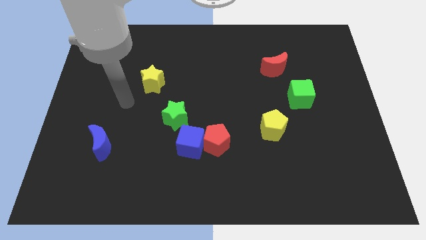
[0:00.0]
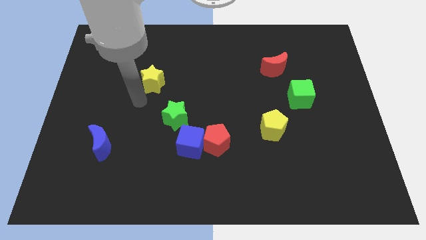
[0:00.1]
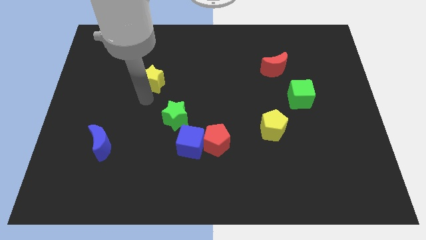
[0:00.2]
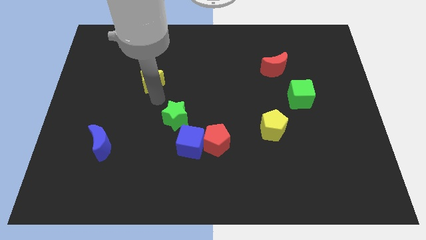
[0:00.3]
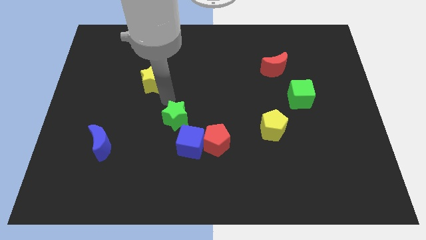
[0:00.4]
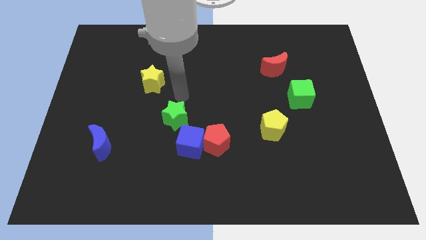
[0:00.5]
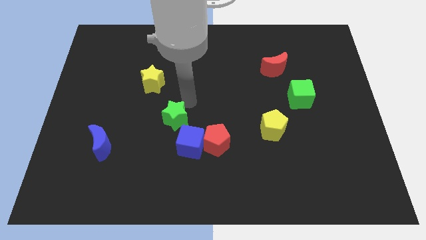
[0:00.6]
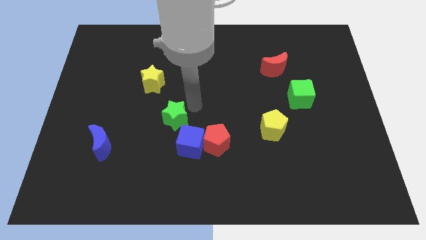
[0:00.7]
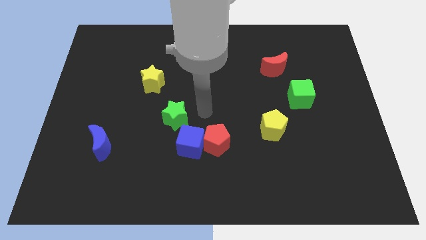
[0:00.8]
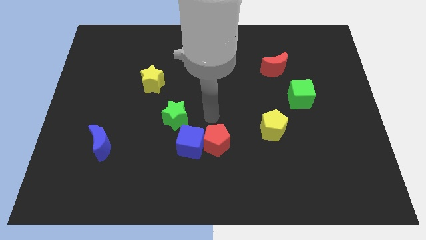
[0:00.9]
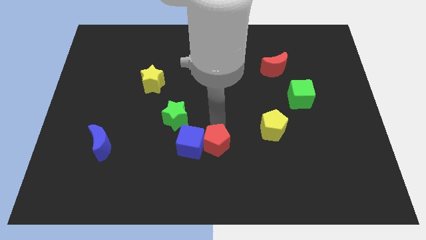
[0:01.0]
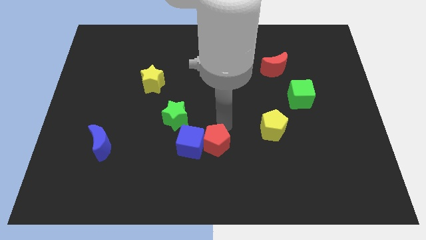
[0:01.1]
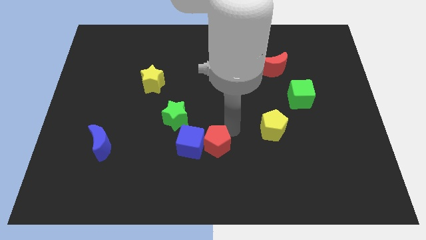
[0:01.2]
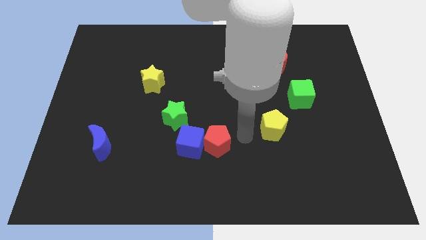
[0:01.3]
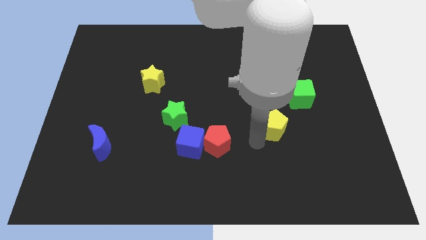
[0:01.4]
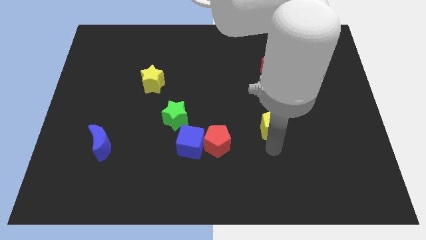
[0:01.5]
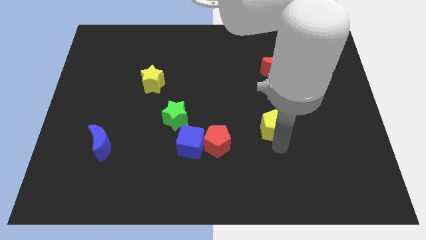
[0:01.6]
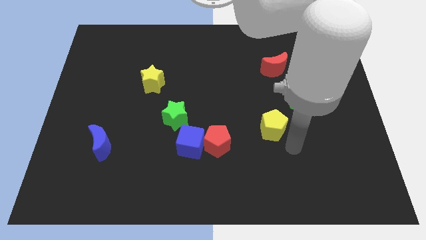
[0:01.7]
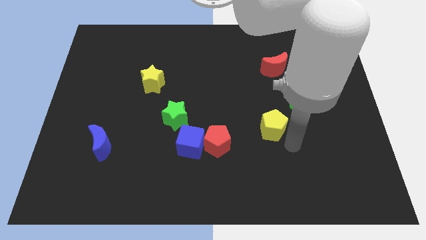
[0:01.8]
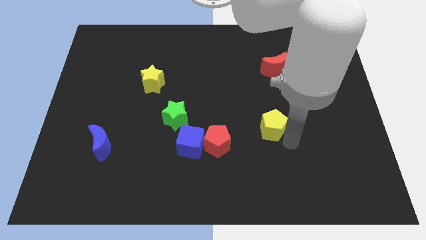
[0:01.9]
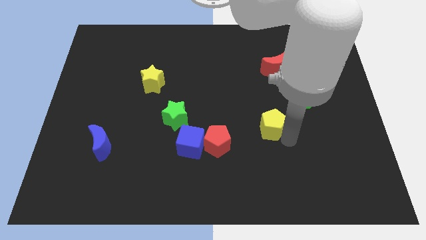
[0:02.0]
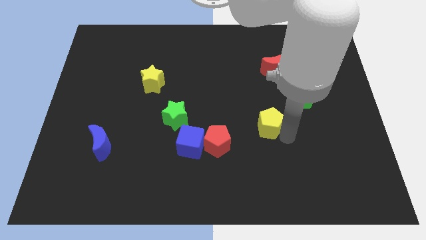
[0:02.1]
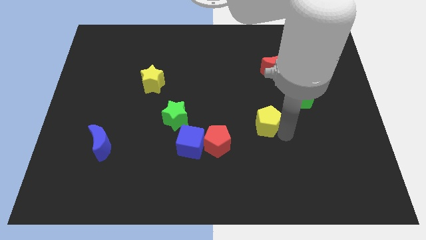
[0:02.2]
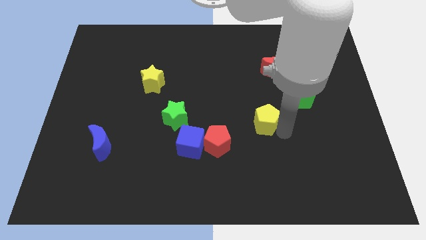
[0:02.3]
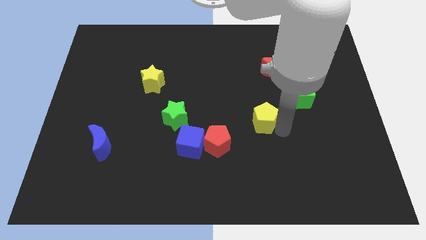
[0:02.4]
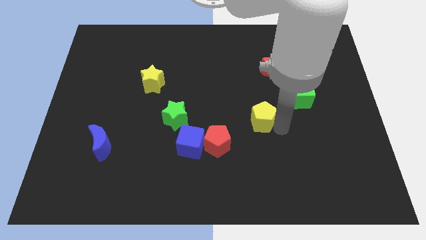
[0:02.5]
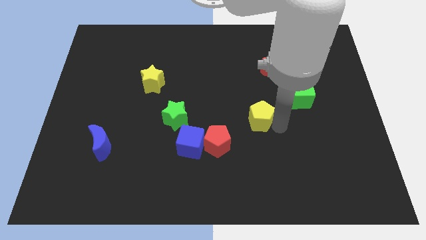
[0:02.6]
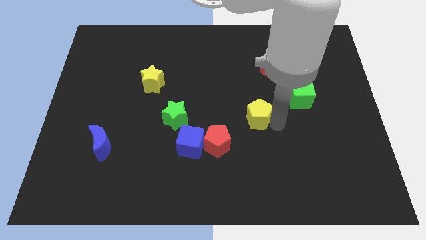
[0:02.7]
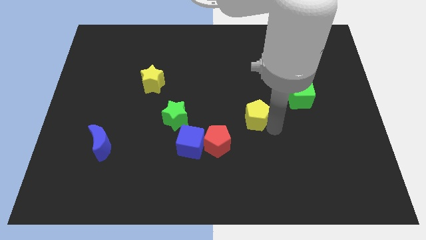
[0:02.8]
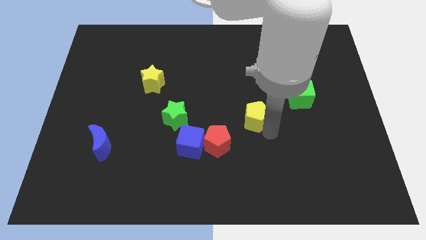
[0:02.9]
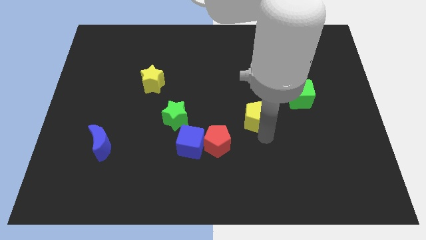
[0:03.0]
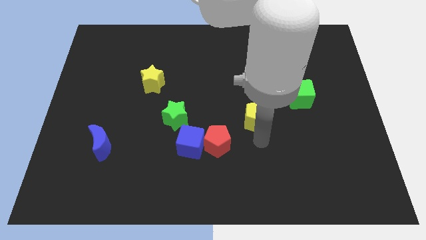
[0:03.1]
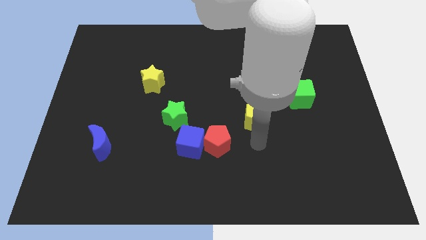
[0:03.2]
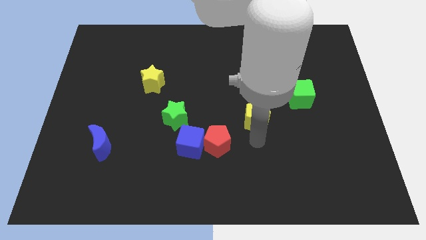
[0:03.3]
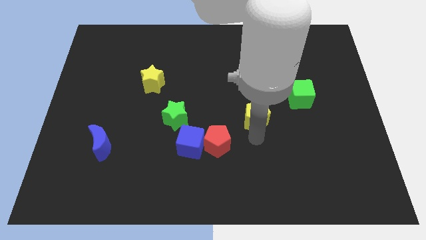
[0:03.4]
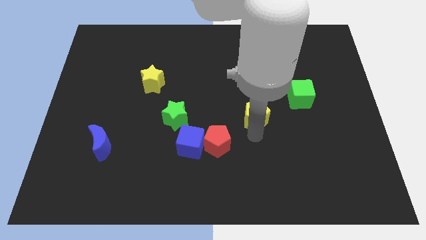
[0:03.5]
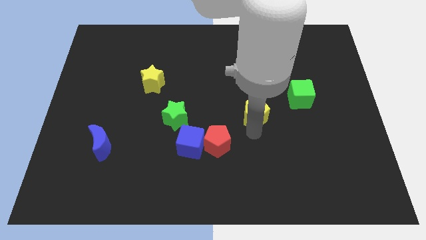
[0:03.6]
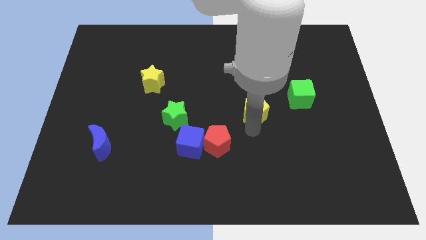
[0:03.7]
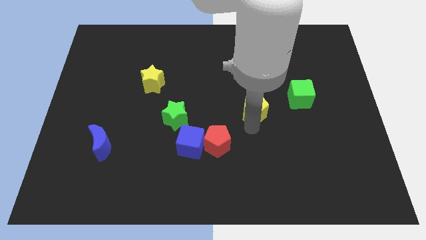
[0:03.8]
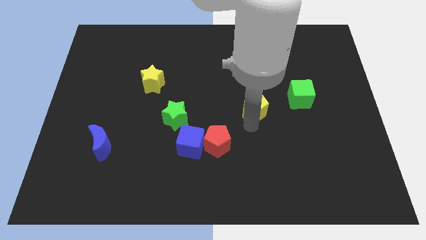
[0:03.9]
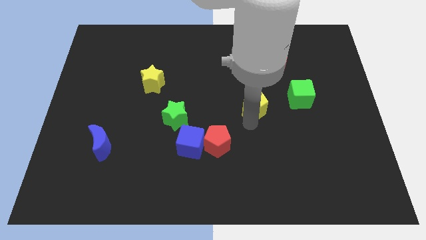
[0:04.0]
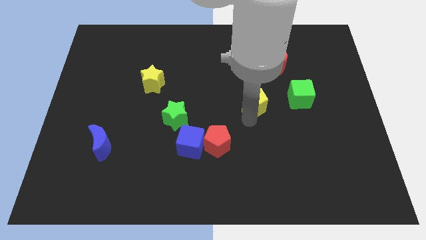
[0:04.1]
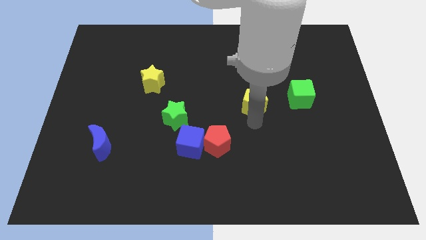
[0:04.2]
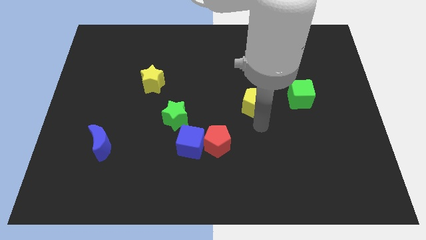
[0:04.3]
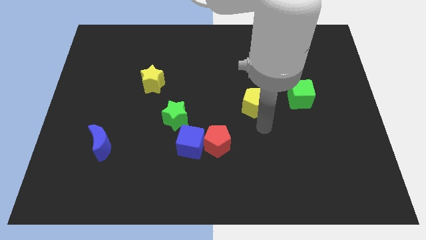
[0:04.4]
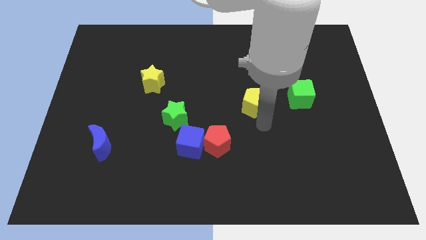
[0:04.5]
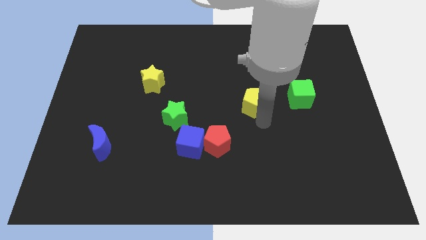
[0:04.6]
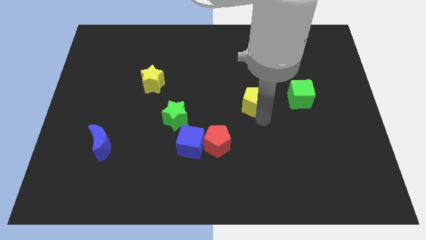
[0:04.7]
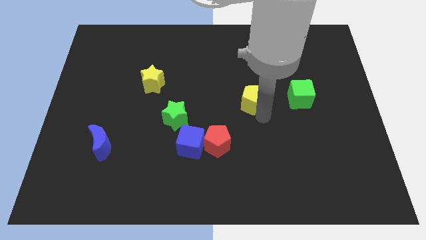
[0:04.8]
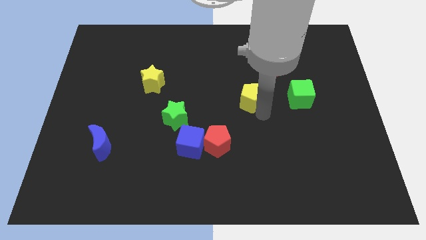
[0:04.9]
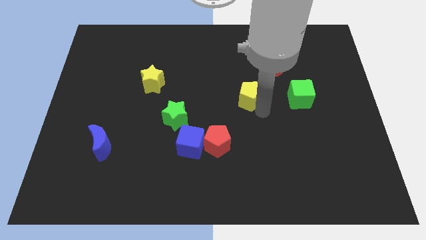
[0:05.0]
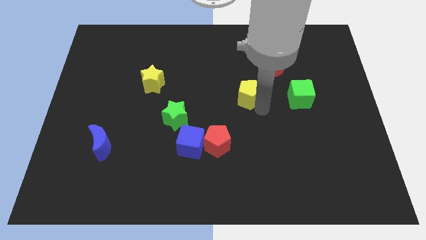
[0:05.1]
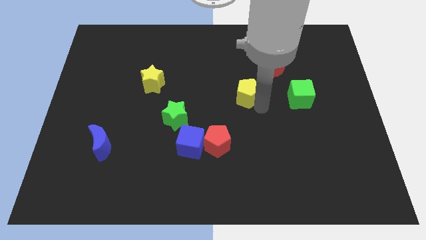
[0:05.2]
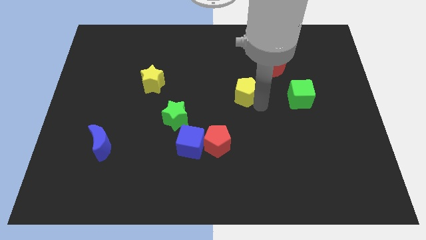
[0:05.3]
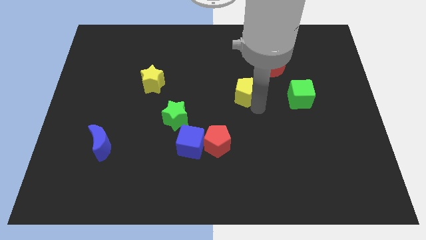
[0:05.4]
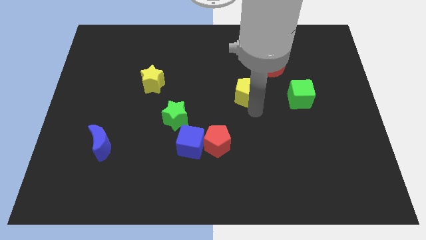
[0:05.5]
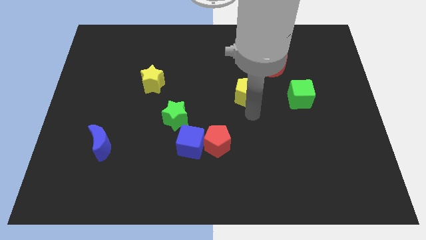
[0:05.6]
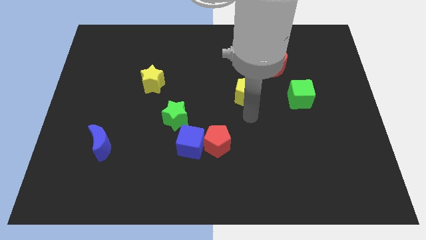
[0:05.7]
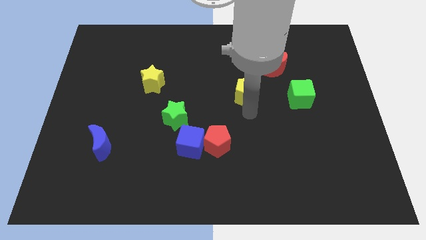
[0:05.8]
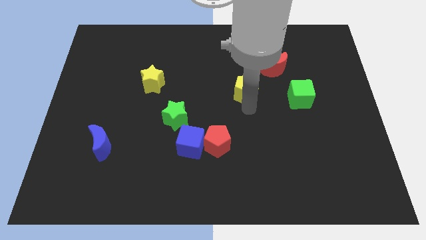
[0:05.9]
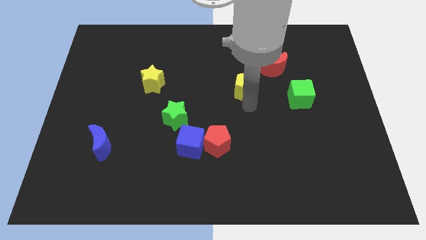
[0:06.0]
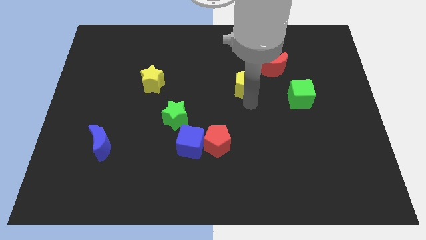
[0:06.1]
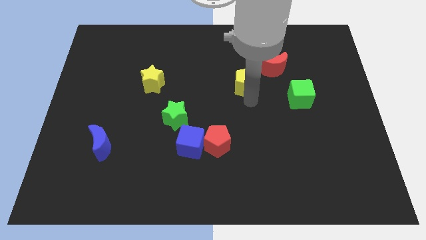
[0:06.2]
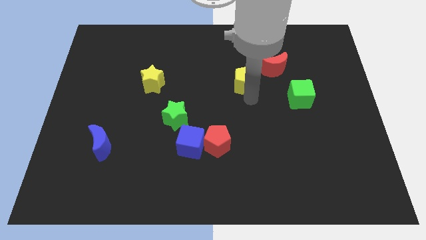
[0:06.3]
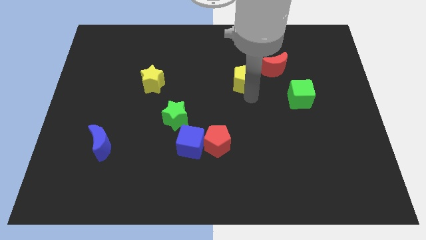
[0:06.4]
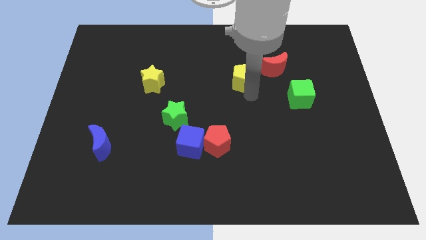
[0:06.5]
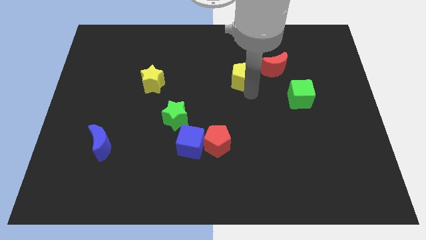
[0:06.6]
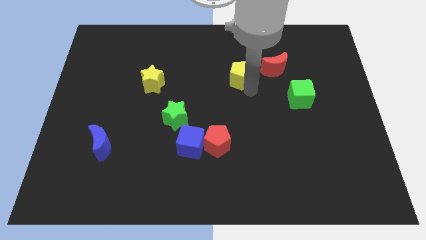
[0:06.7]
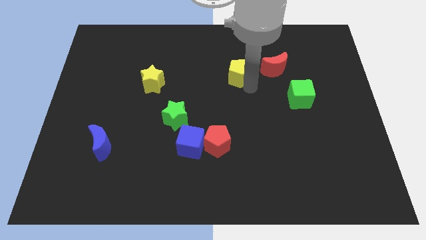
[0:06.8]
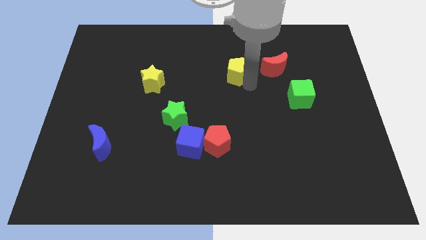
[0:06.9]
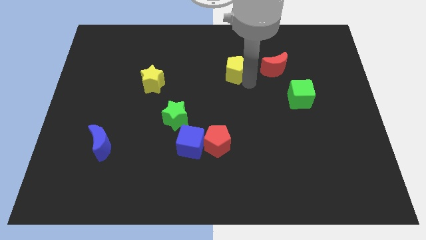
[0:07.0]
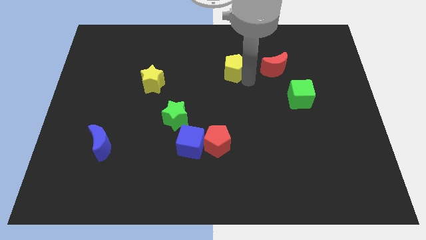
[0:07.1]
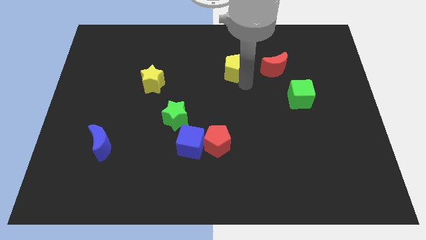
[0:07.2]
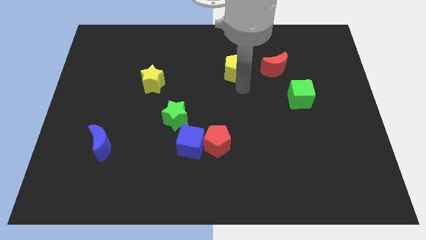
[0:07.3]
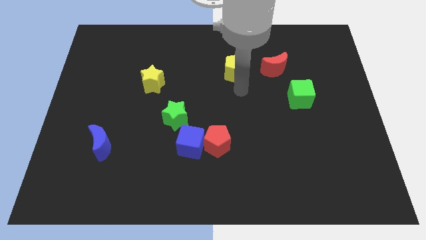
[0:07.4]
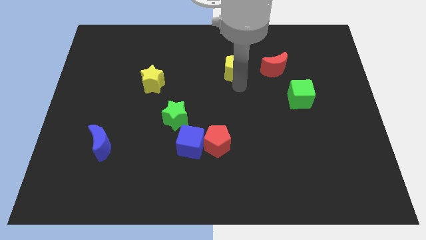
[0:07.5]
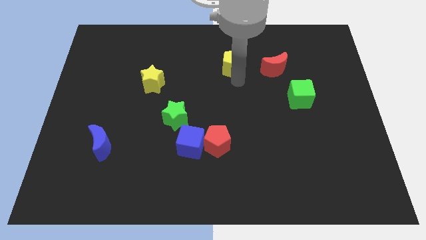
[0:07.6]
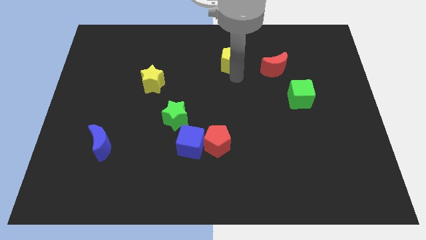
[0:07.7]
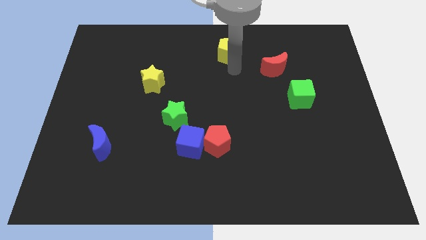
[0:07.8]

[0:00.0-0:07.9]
push the yellow pentagon to the towards your base
